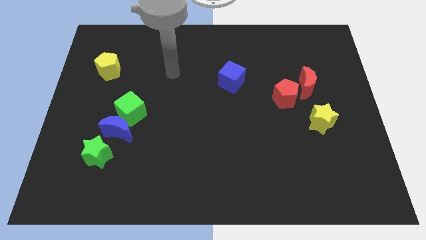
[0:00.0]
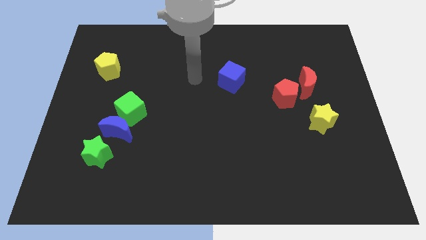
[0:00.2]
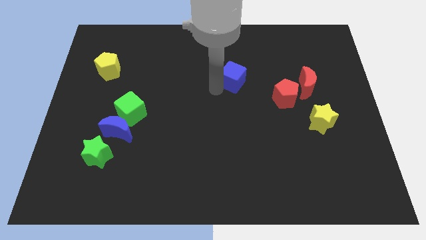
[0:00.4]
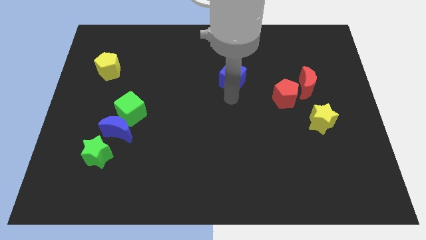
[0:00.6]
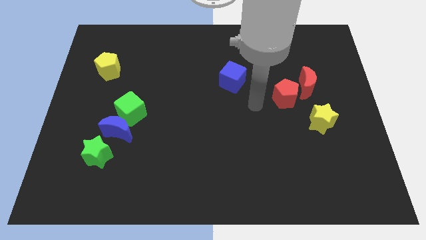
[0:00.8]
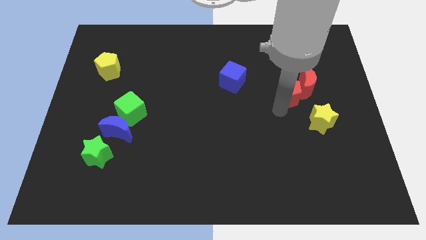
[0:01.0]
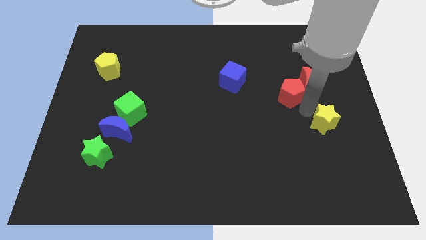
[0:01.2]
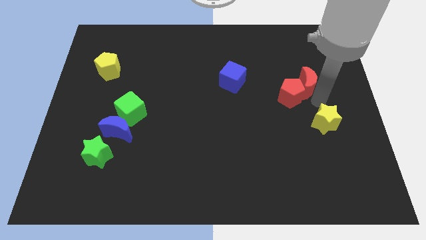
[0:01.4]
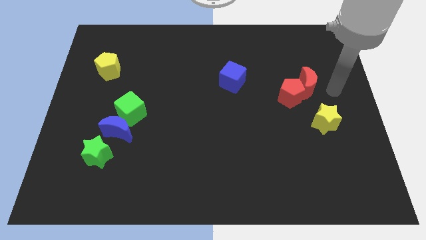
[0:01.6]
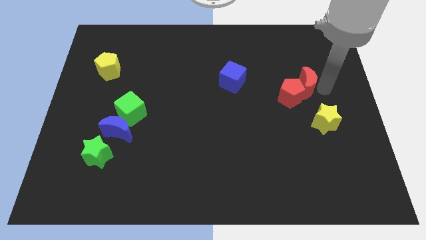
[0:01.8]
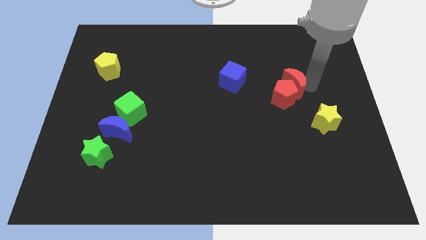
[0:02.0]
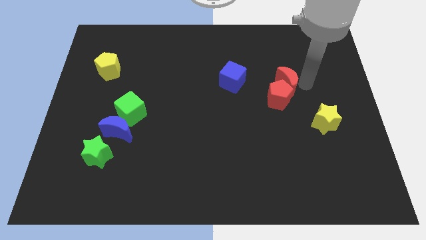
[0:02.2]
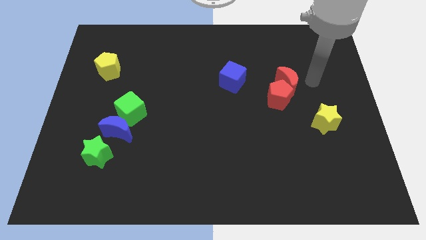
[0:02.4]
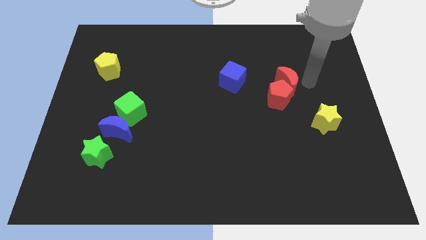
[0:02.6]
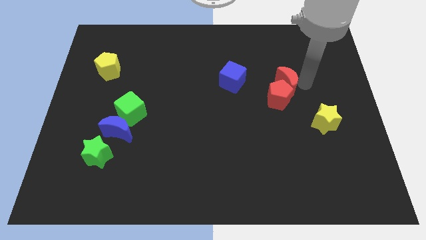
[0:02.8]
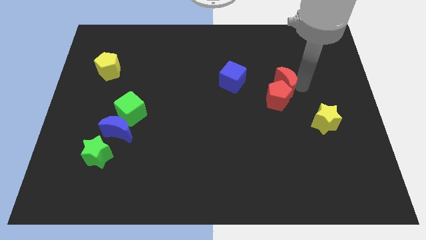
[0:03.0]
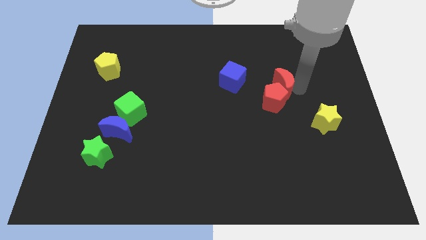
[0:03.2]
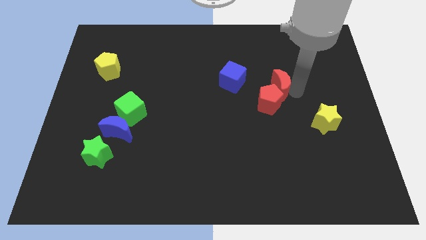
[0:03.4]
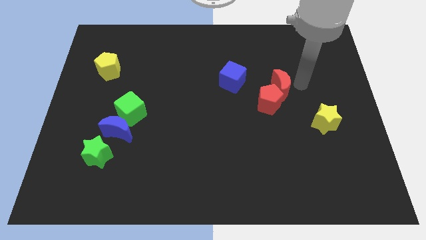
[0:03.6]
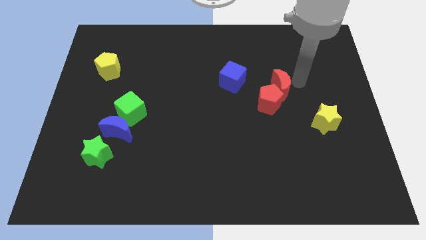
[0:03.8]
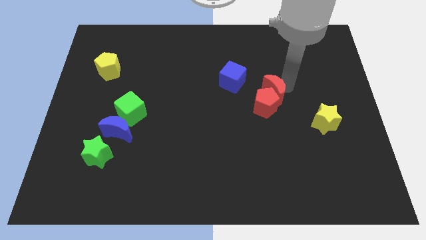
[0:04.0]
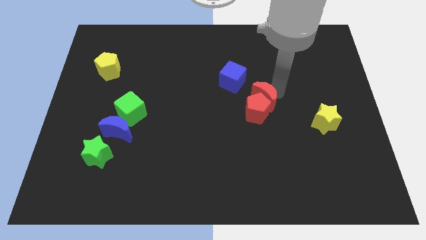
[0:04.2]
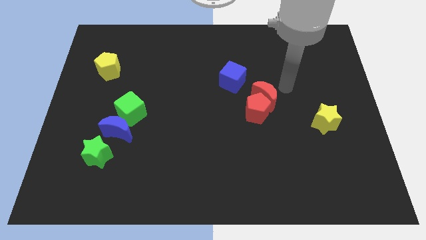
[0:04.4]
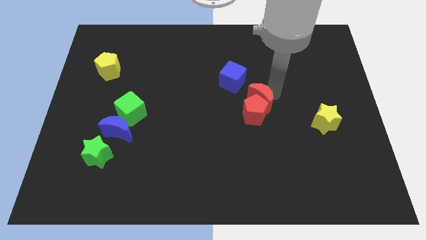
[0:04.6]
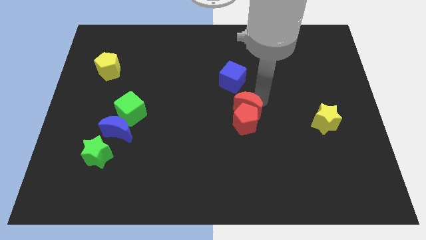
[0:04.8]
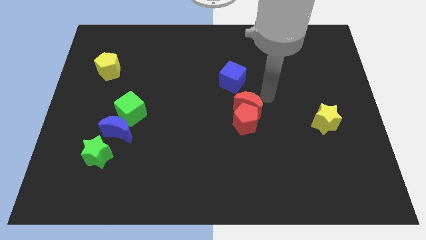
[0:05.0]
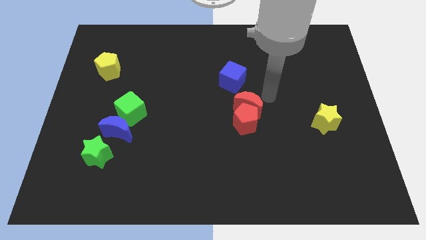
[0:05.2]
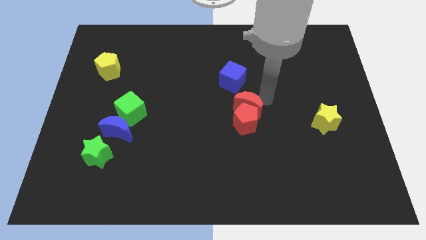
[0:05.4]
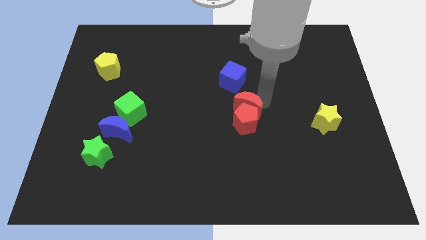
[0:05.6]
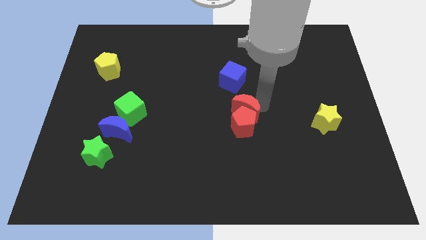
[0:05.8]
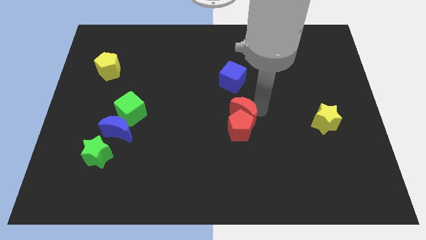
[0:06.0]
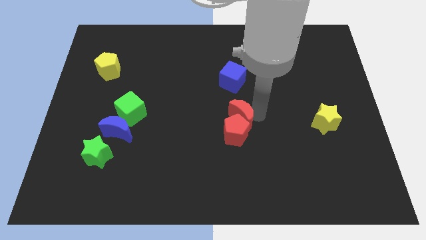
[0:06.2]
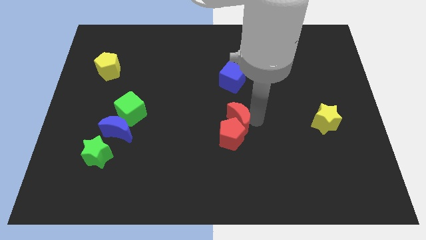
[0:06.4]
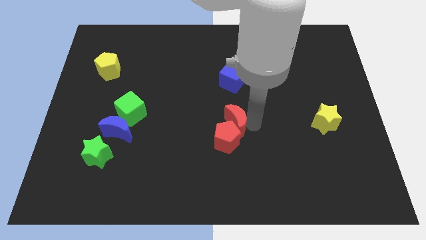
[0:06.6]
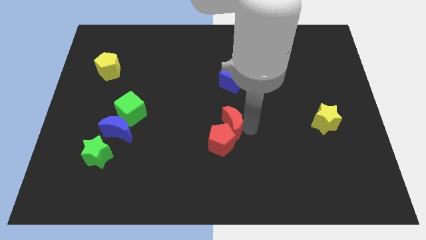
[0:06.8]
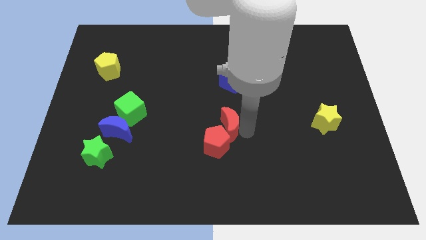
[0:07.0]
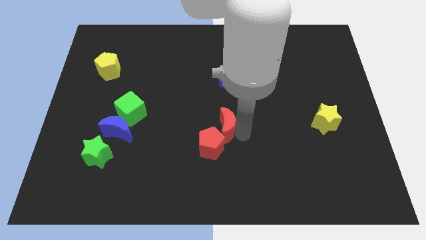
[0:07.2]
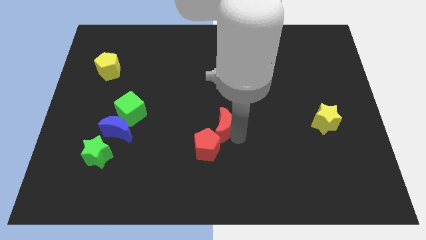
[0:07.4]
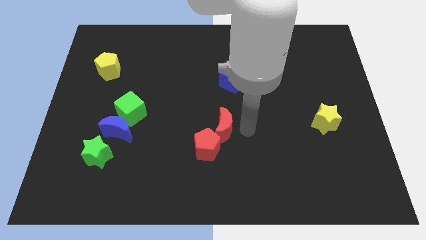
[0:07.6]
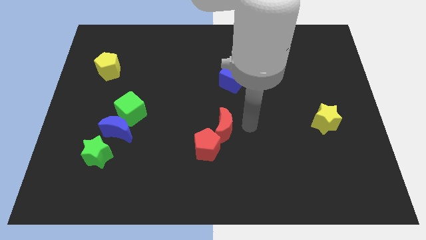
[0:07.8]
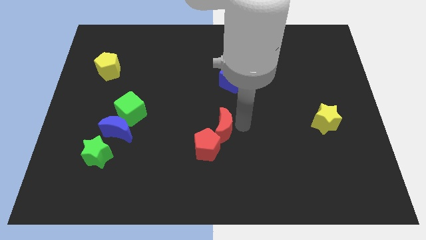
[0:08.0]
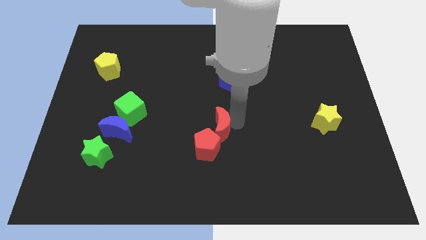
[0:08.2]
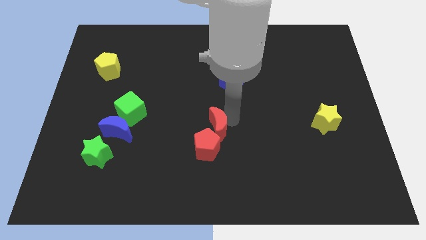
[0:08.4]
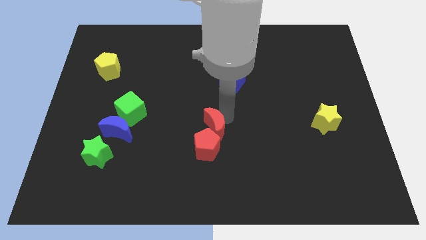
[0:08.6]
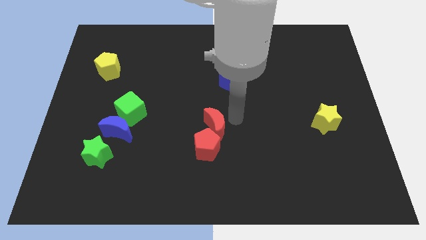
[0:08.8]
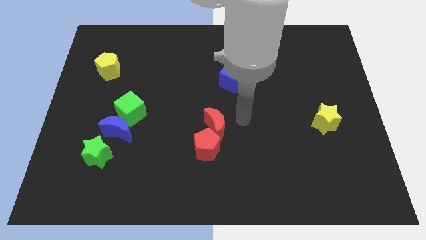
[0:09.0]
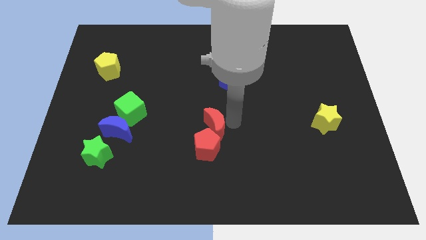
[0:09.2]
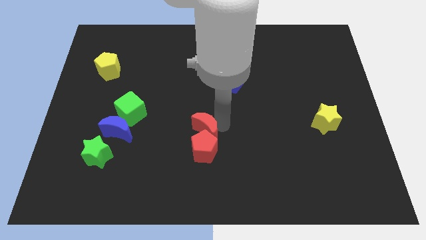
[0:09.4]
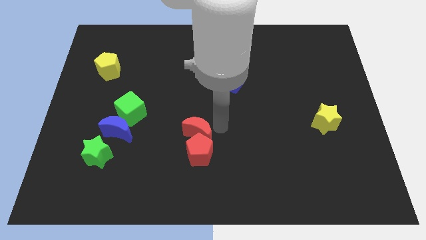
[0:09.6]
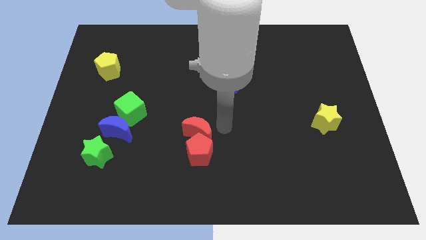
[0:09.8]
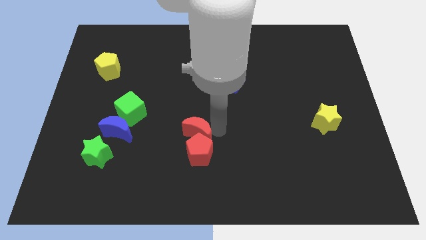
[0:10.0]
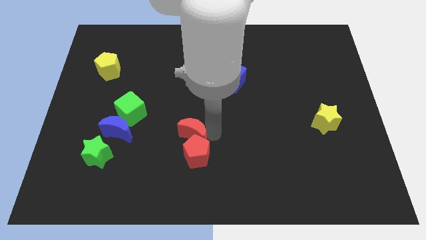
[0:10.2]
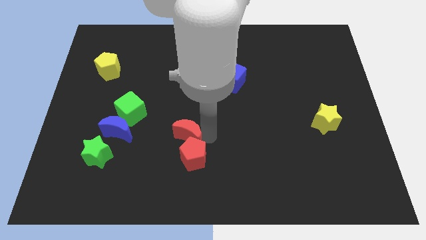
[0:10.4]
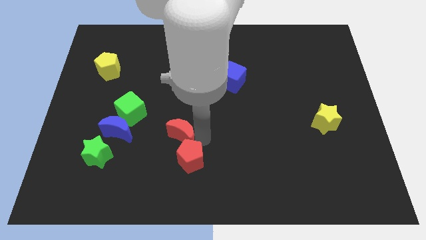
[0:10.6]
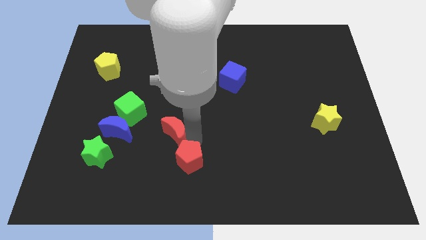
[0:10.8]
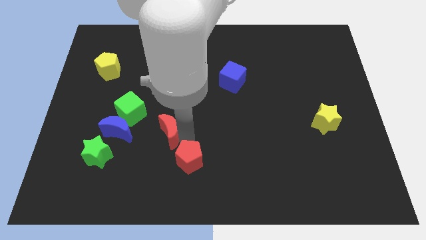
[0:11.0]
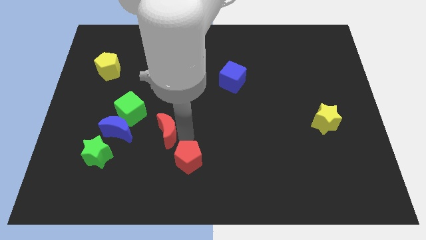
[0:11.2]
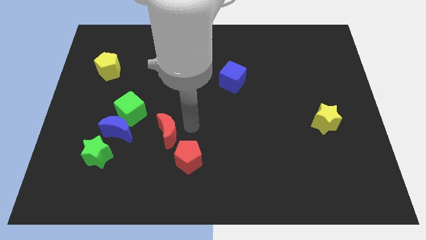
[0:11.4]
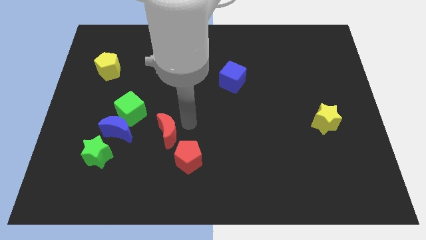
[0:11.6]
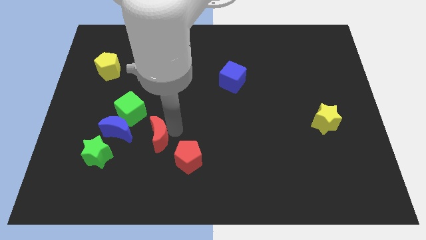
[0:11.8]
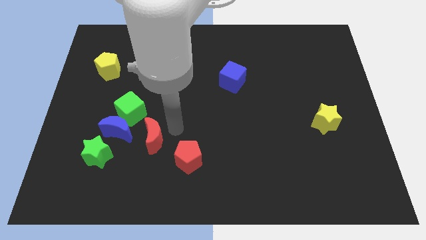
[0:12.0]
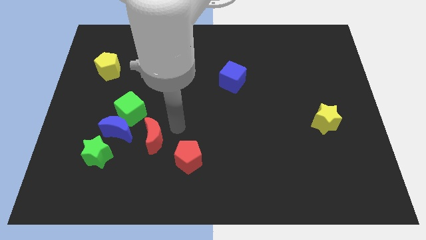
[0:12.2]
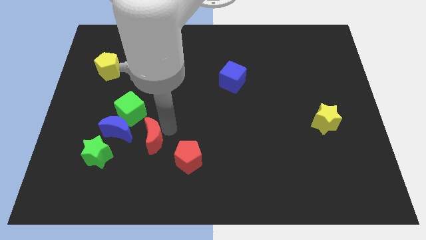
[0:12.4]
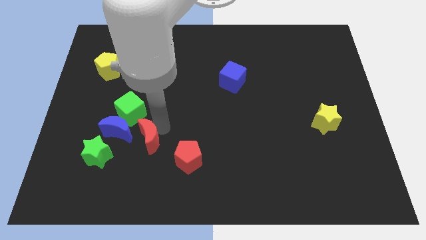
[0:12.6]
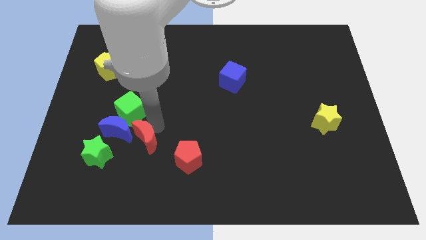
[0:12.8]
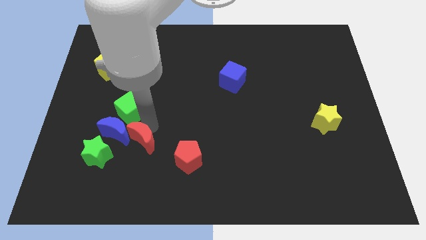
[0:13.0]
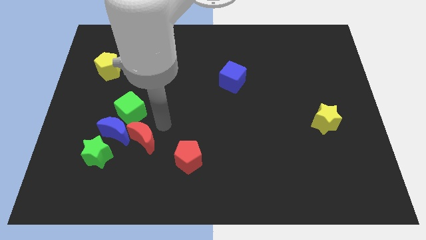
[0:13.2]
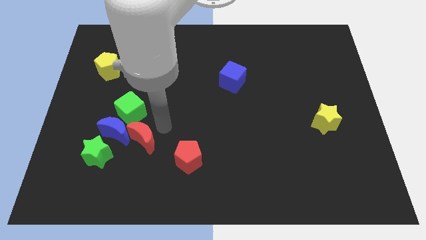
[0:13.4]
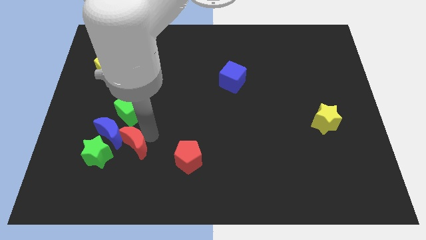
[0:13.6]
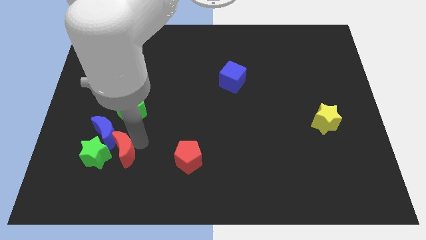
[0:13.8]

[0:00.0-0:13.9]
move the red moon to the green star

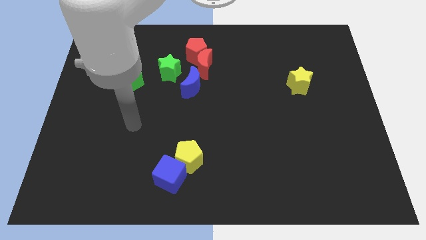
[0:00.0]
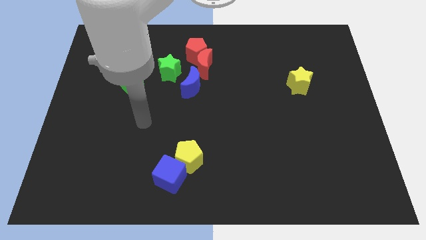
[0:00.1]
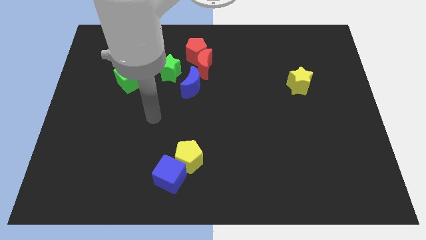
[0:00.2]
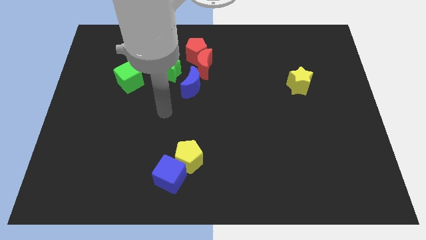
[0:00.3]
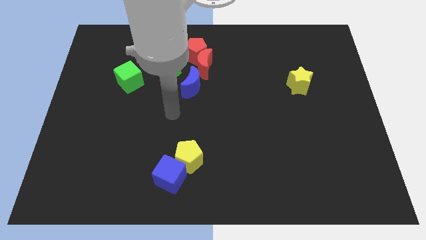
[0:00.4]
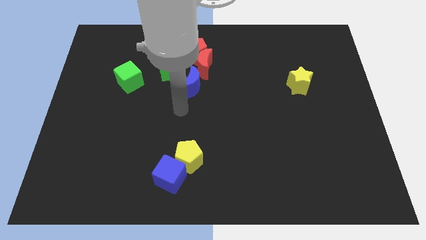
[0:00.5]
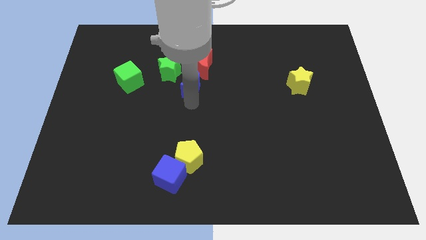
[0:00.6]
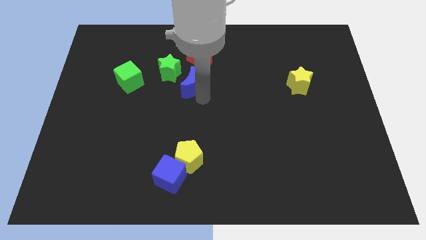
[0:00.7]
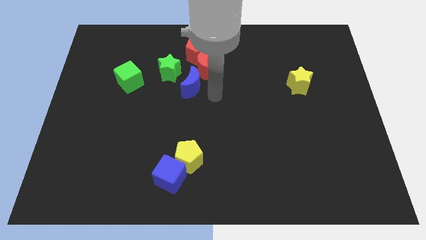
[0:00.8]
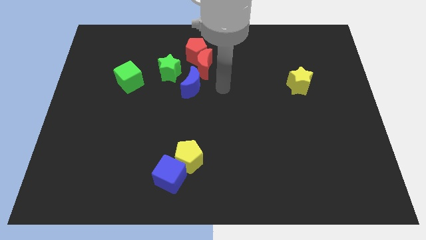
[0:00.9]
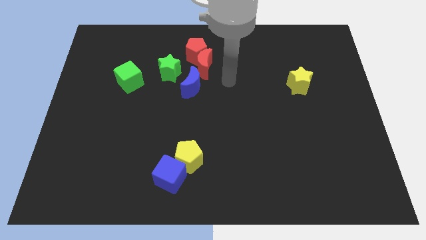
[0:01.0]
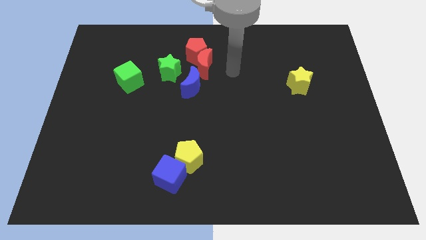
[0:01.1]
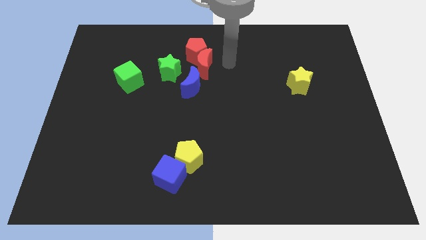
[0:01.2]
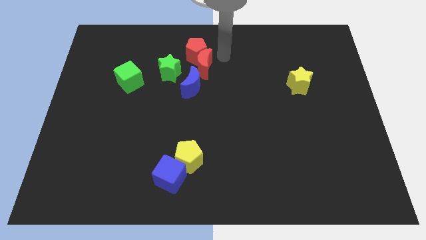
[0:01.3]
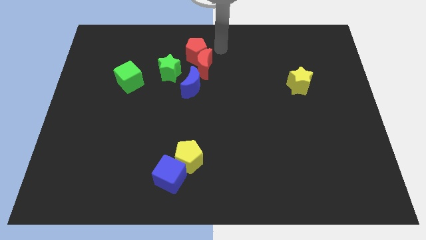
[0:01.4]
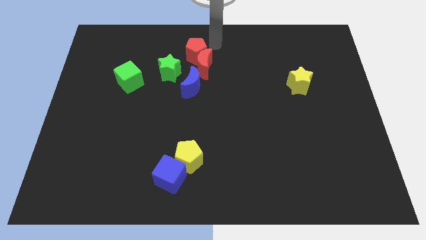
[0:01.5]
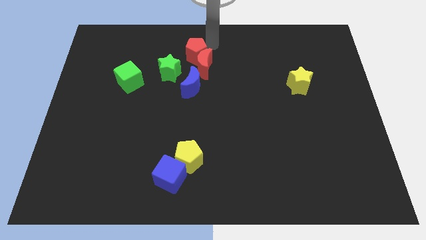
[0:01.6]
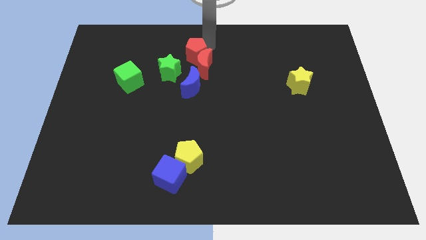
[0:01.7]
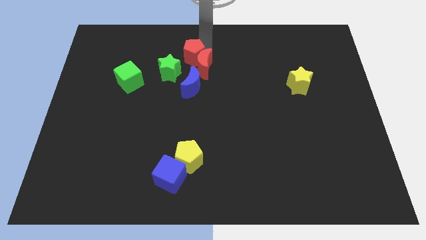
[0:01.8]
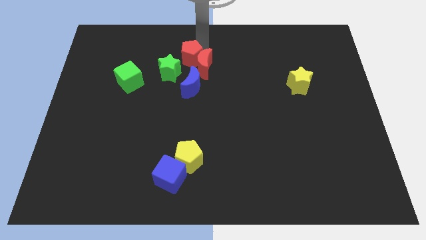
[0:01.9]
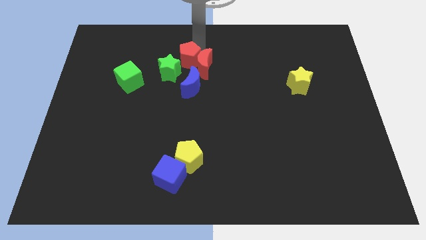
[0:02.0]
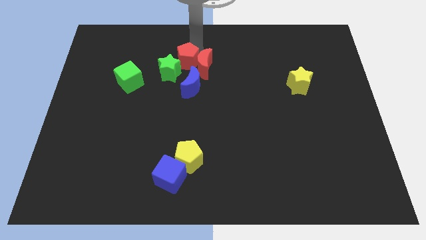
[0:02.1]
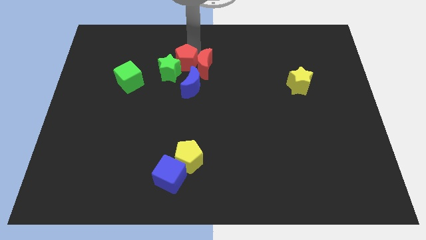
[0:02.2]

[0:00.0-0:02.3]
move the red pentagon to the green star
